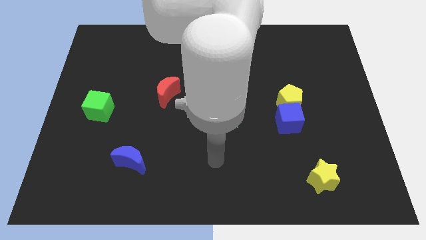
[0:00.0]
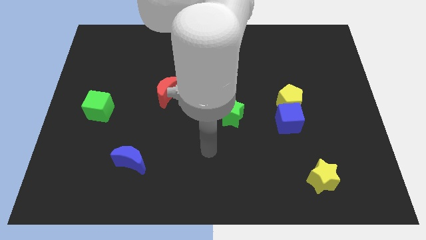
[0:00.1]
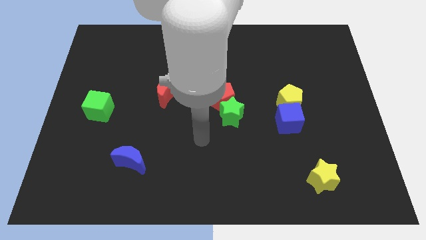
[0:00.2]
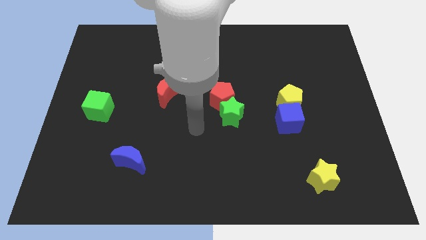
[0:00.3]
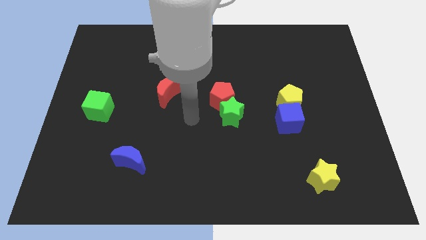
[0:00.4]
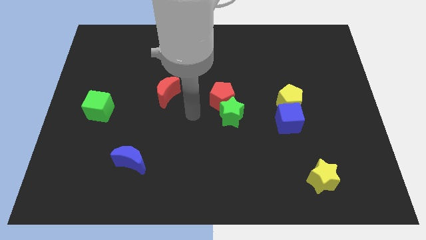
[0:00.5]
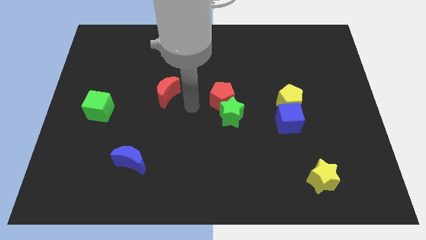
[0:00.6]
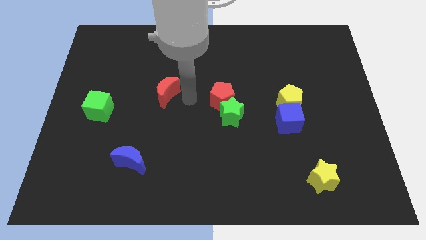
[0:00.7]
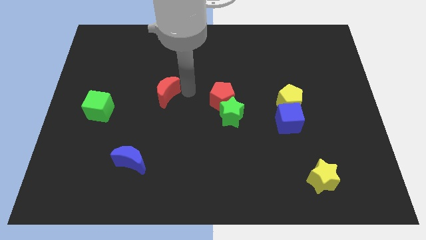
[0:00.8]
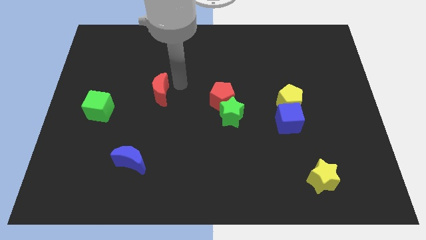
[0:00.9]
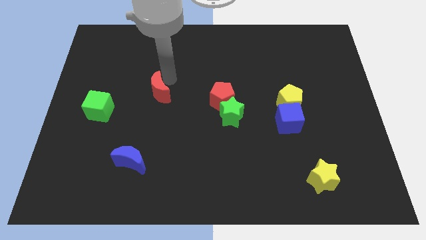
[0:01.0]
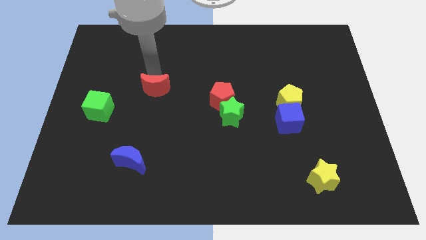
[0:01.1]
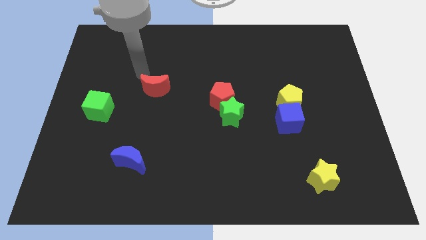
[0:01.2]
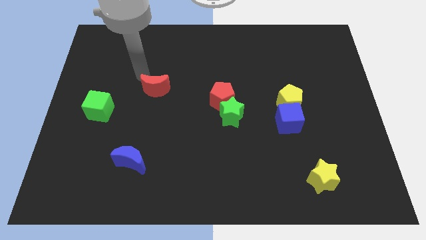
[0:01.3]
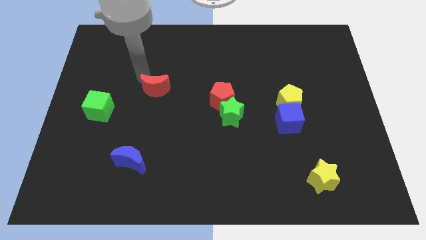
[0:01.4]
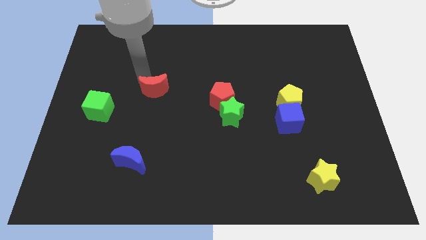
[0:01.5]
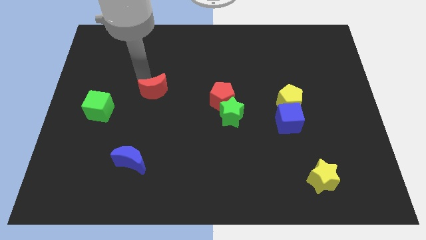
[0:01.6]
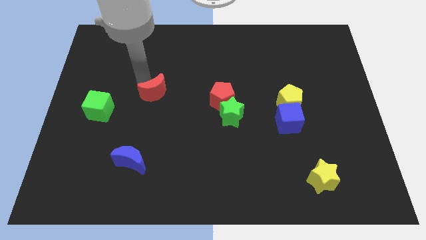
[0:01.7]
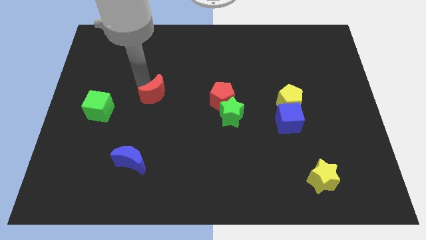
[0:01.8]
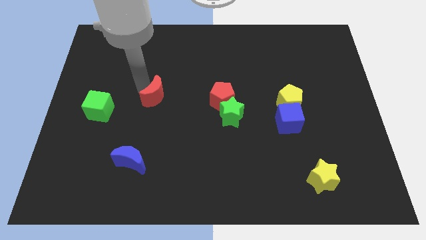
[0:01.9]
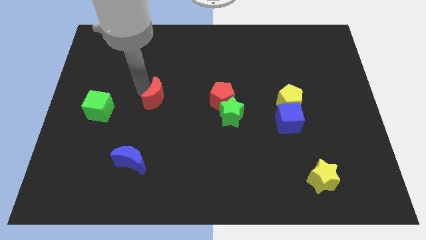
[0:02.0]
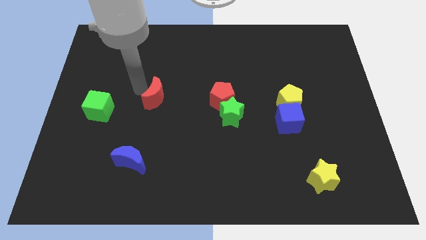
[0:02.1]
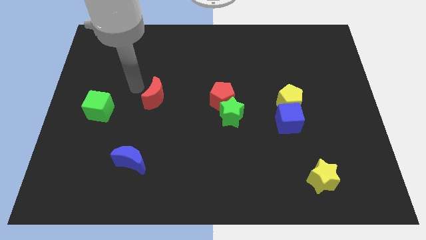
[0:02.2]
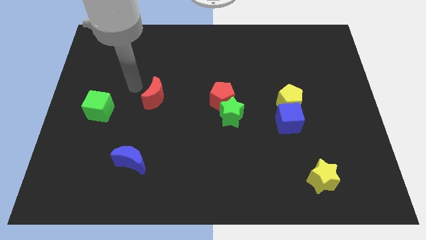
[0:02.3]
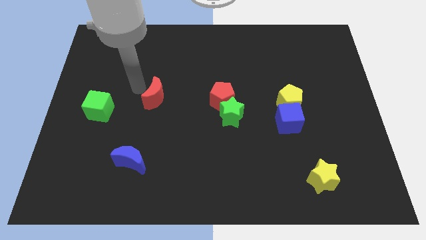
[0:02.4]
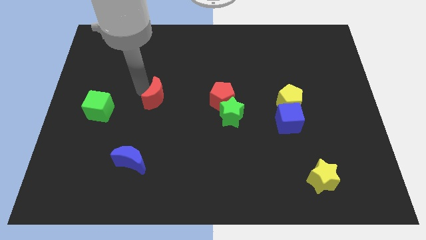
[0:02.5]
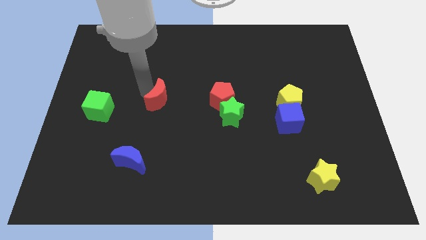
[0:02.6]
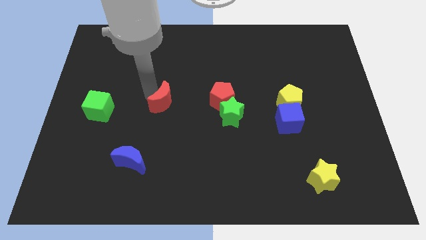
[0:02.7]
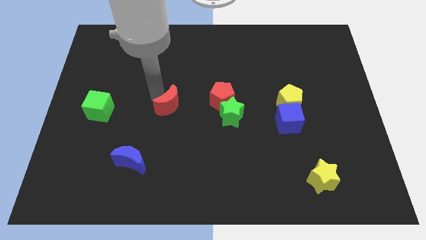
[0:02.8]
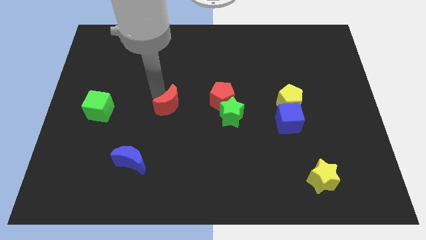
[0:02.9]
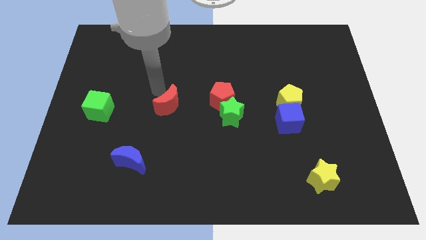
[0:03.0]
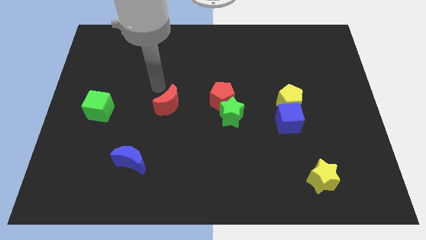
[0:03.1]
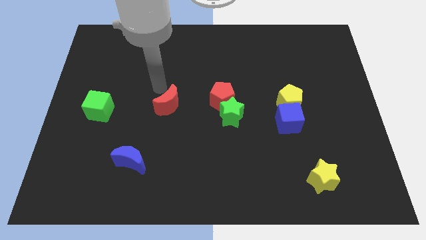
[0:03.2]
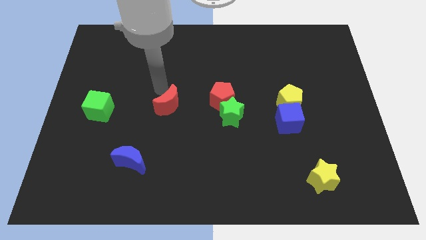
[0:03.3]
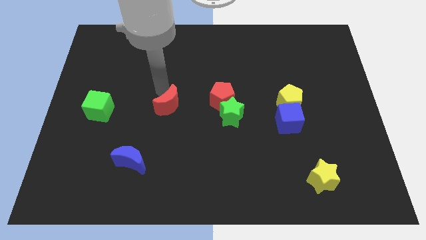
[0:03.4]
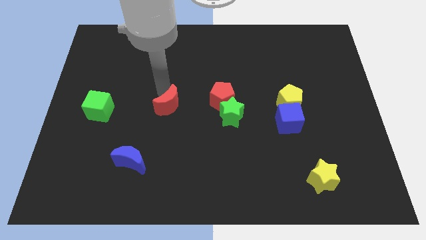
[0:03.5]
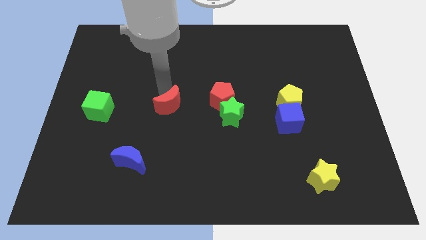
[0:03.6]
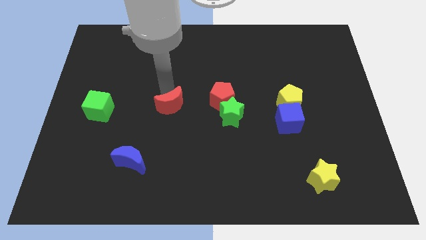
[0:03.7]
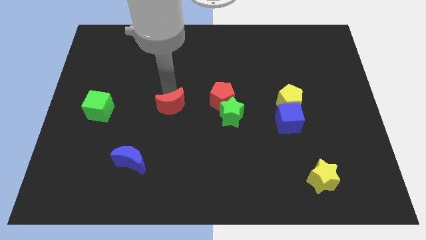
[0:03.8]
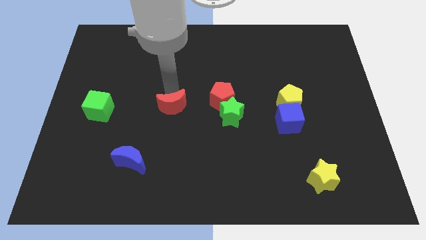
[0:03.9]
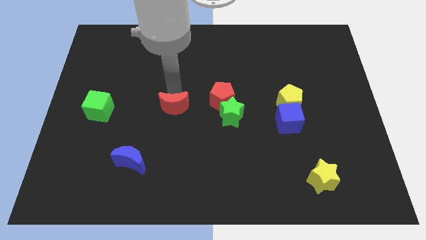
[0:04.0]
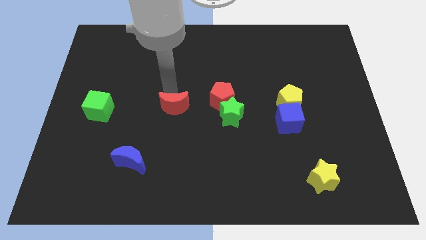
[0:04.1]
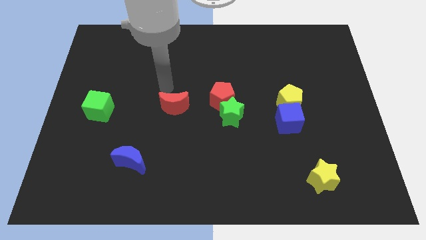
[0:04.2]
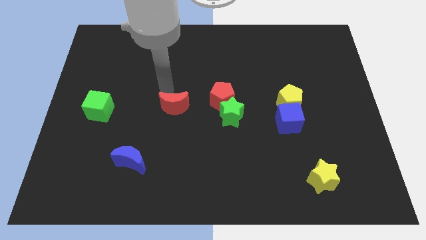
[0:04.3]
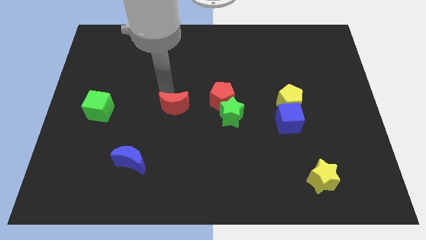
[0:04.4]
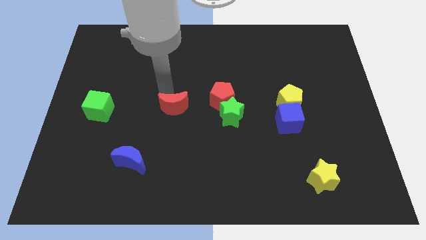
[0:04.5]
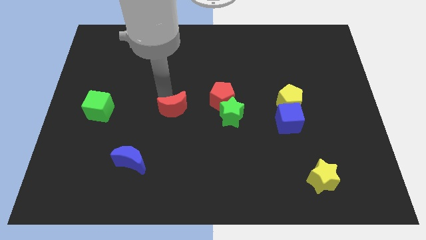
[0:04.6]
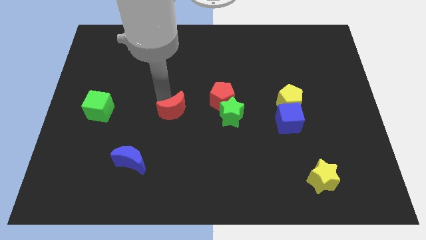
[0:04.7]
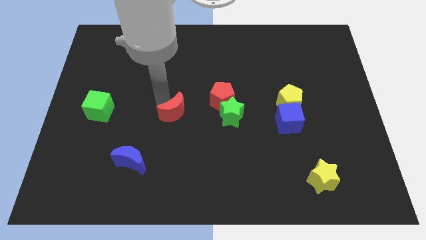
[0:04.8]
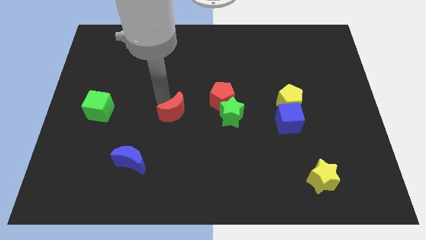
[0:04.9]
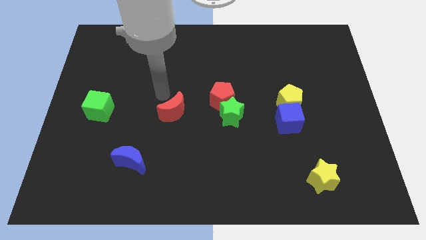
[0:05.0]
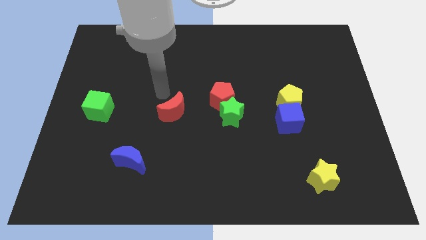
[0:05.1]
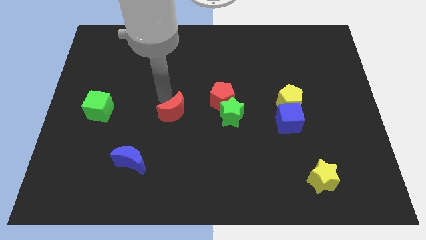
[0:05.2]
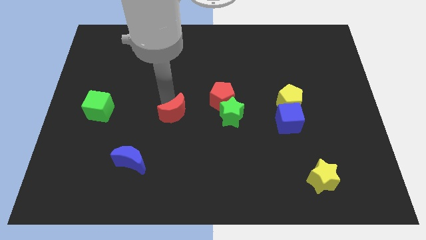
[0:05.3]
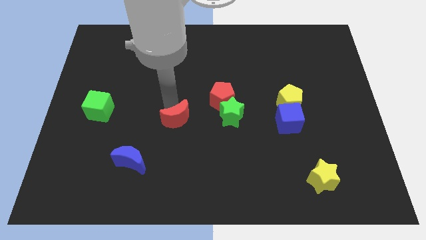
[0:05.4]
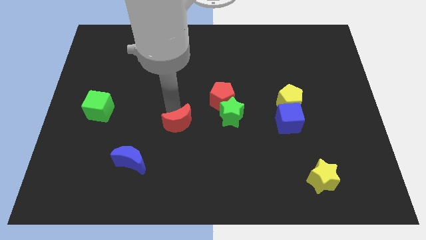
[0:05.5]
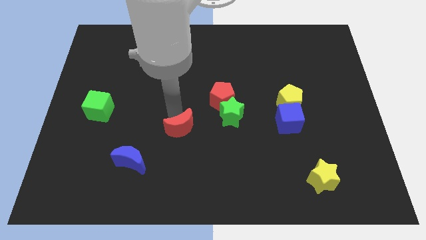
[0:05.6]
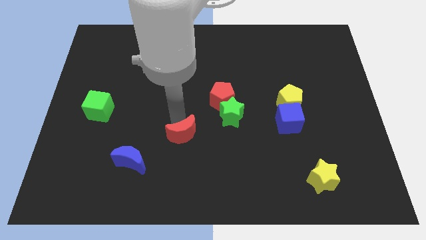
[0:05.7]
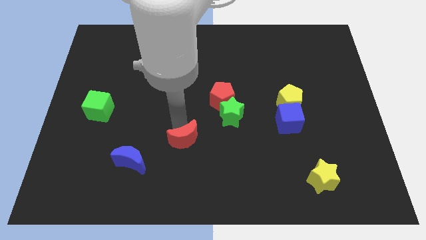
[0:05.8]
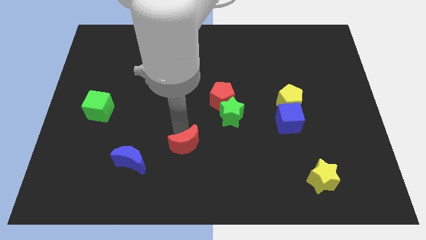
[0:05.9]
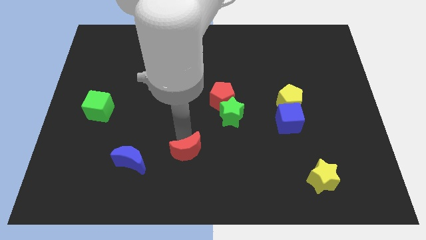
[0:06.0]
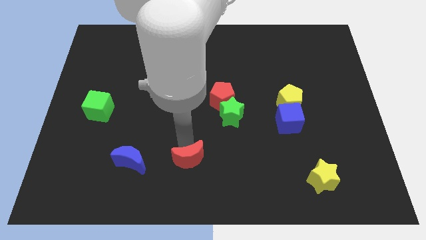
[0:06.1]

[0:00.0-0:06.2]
push the red moon to the bottom side
